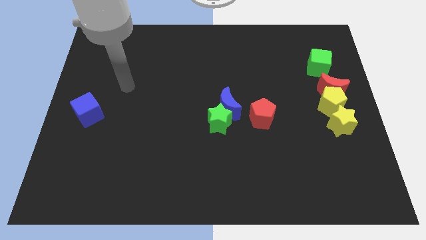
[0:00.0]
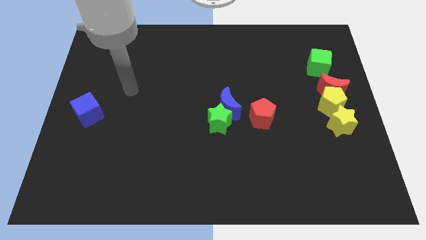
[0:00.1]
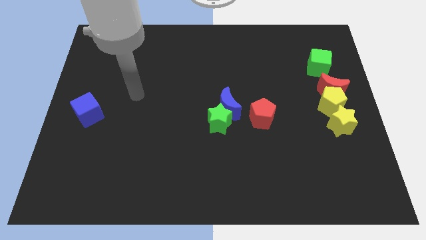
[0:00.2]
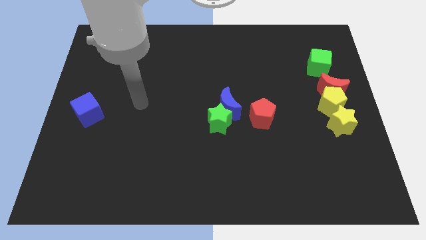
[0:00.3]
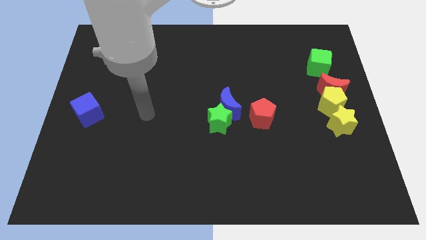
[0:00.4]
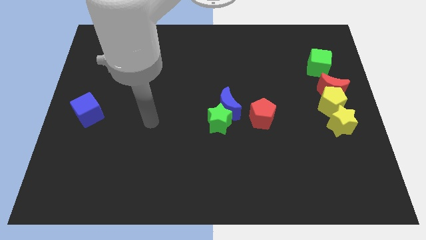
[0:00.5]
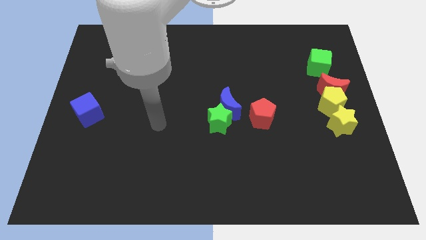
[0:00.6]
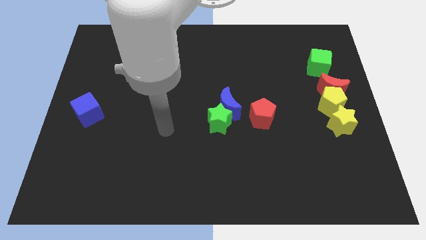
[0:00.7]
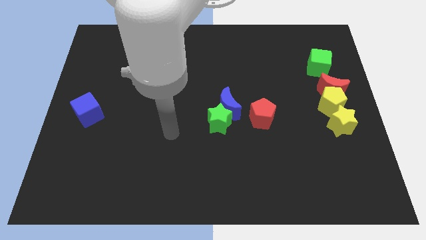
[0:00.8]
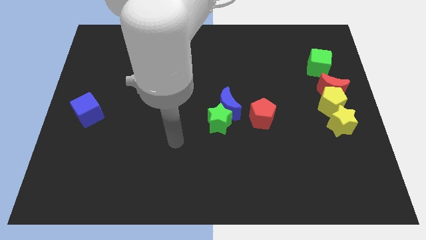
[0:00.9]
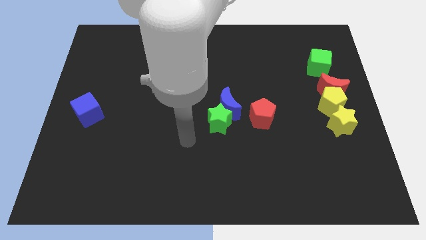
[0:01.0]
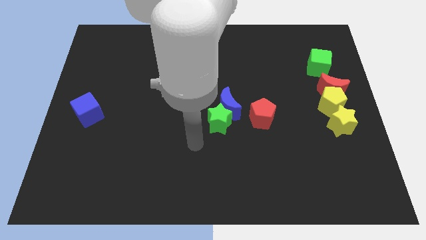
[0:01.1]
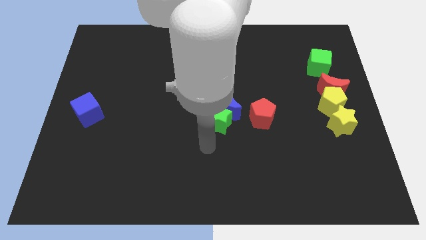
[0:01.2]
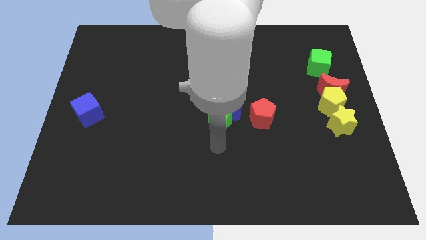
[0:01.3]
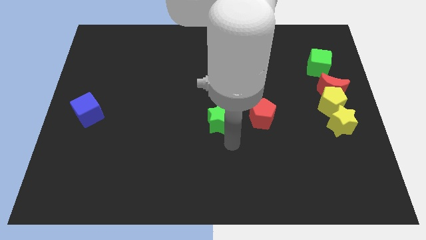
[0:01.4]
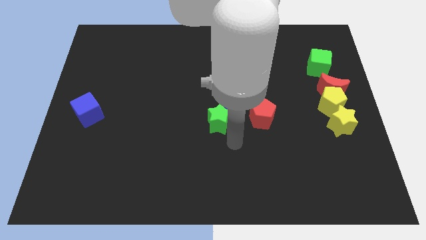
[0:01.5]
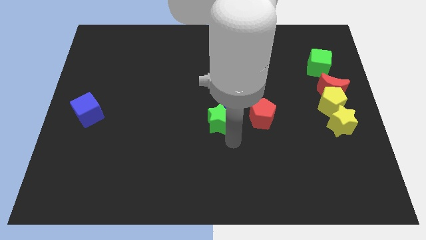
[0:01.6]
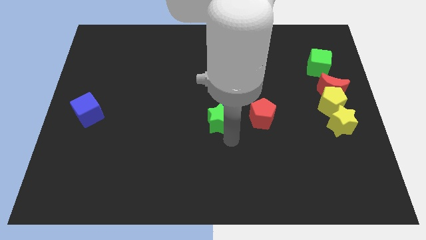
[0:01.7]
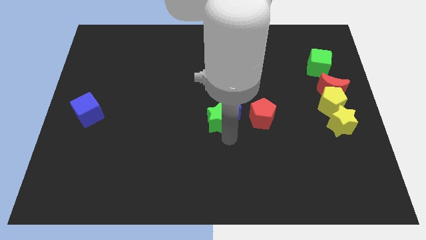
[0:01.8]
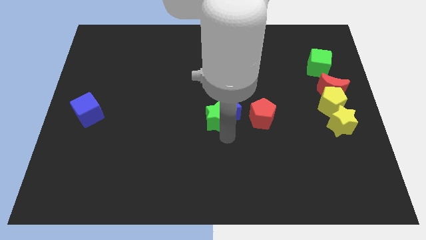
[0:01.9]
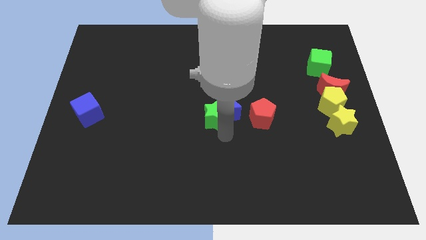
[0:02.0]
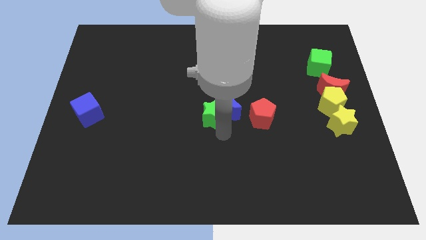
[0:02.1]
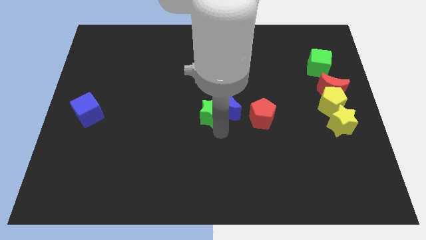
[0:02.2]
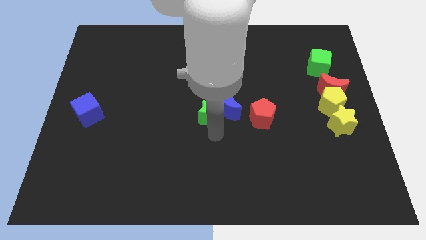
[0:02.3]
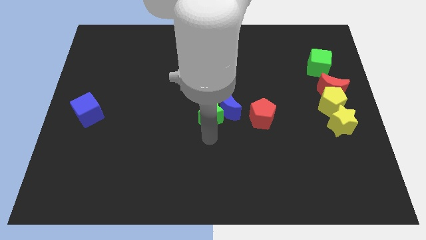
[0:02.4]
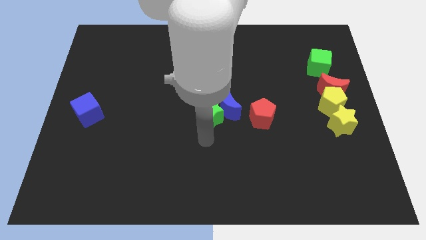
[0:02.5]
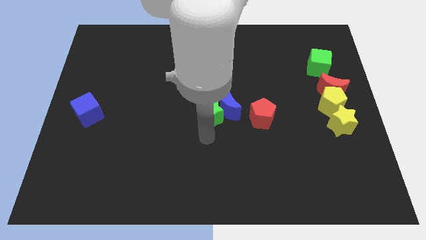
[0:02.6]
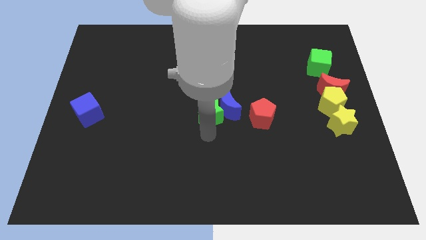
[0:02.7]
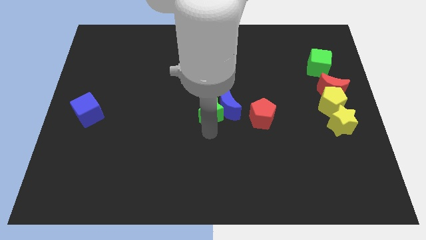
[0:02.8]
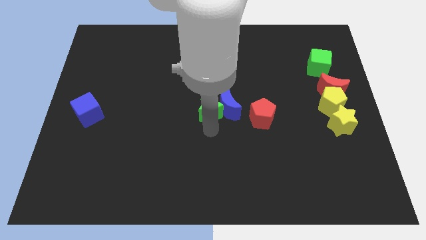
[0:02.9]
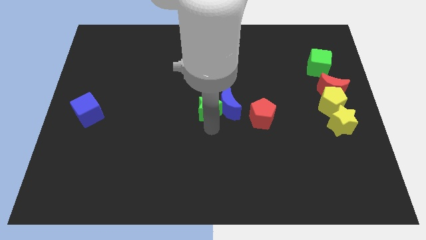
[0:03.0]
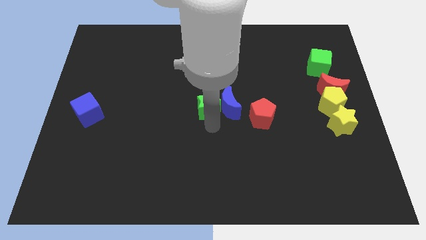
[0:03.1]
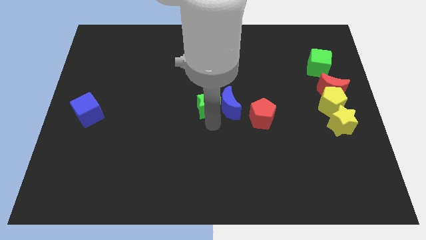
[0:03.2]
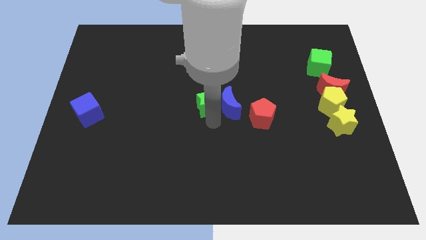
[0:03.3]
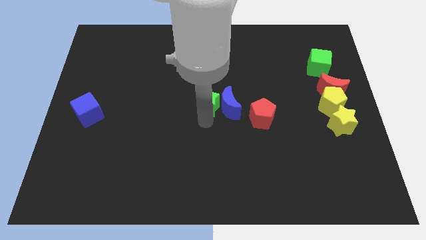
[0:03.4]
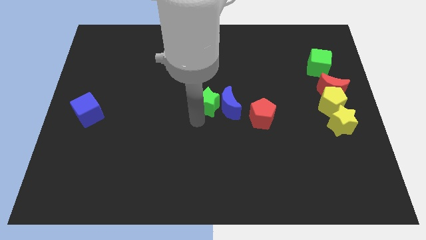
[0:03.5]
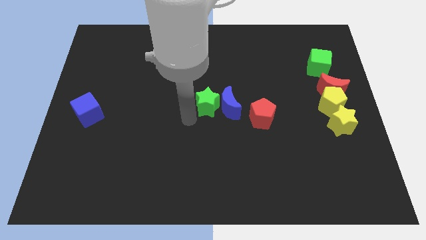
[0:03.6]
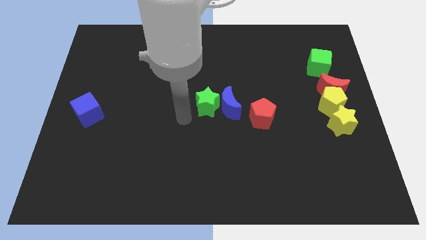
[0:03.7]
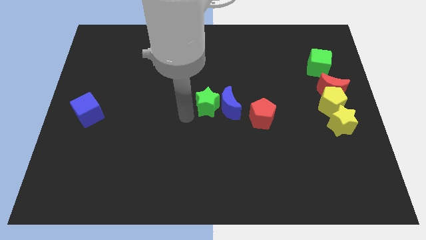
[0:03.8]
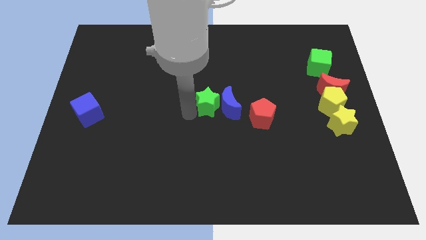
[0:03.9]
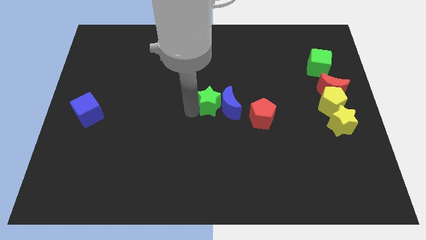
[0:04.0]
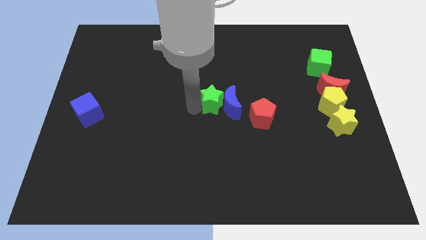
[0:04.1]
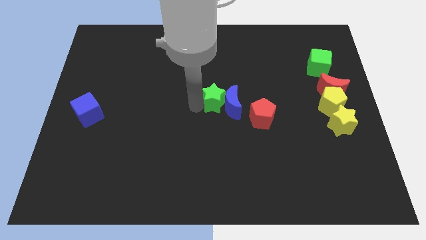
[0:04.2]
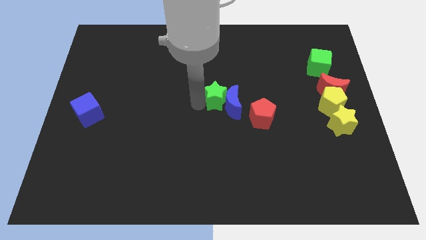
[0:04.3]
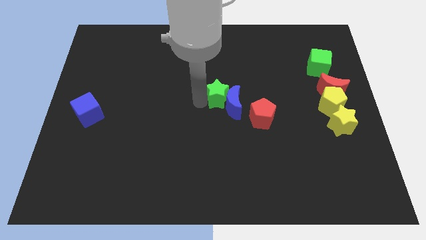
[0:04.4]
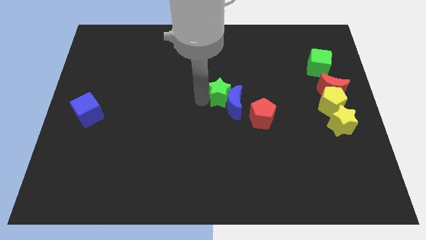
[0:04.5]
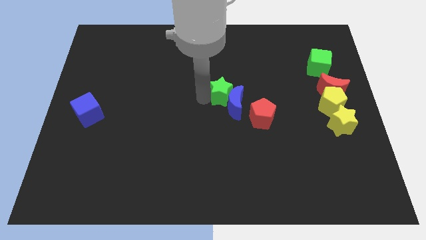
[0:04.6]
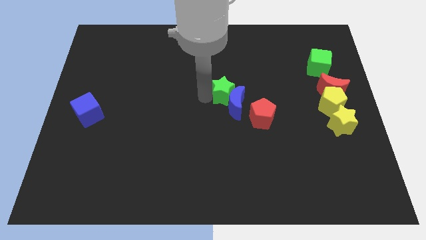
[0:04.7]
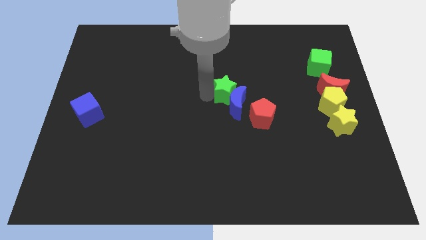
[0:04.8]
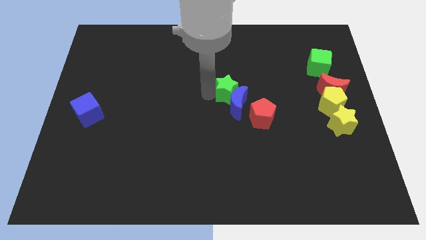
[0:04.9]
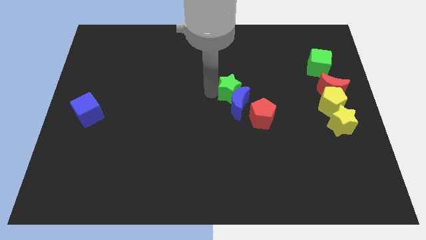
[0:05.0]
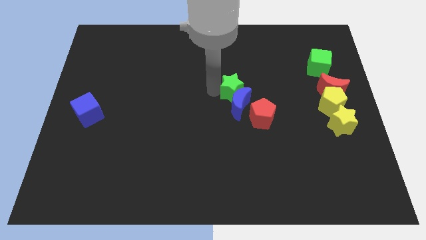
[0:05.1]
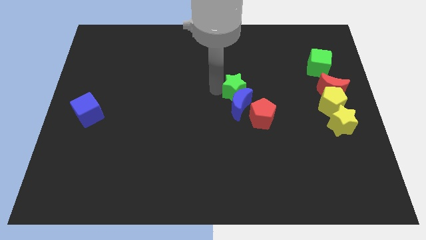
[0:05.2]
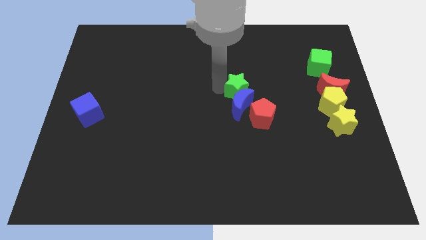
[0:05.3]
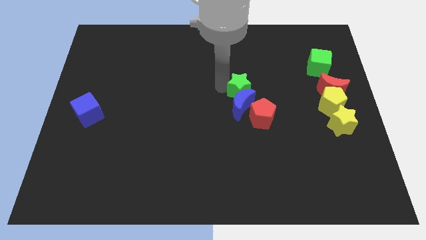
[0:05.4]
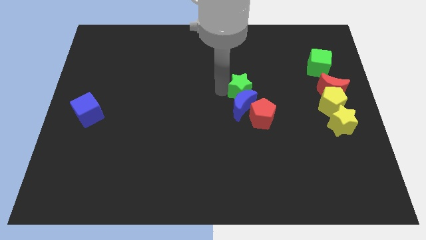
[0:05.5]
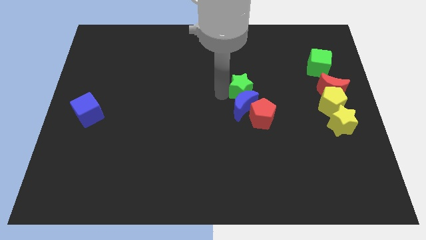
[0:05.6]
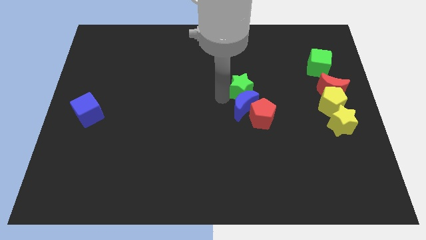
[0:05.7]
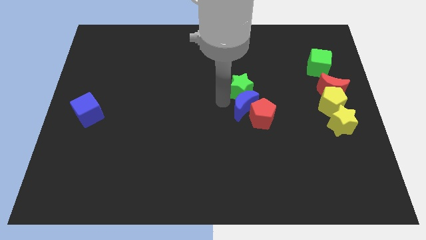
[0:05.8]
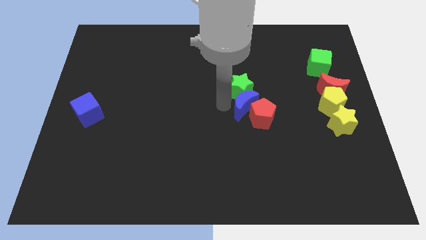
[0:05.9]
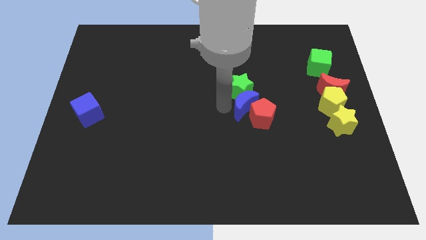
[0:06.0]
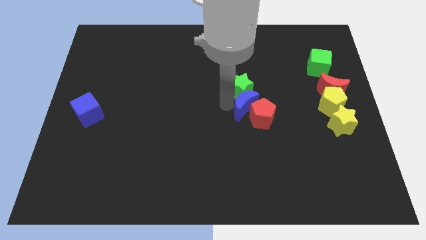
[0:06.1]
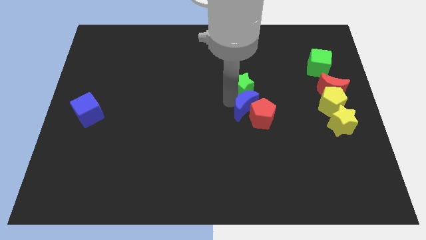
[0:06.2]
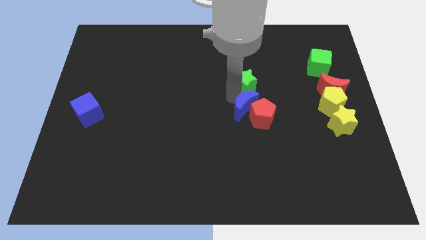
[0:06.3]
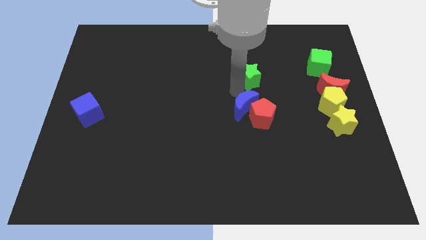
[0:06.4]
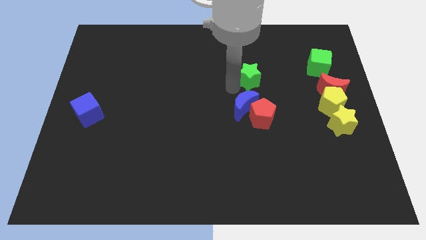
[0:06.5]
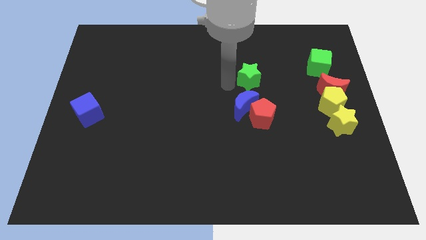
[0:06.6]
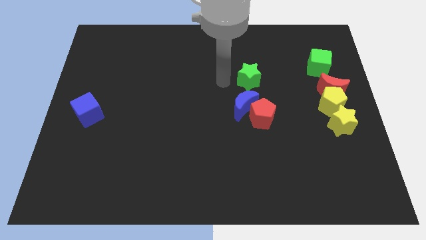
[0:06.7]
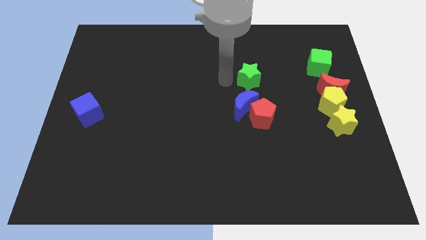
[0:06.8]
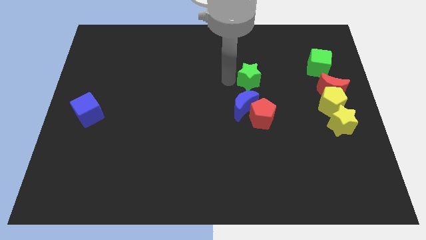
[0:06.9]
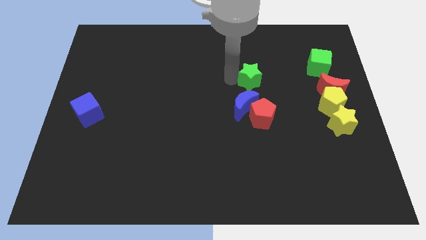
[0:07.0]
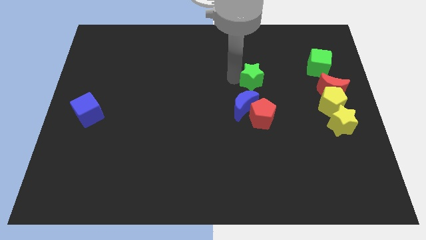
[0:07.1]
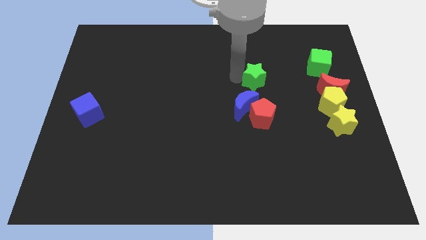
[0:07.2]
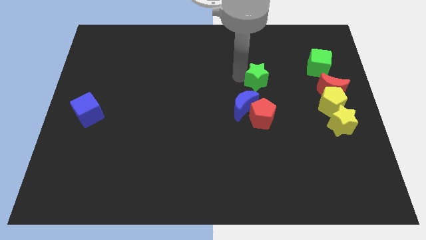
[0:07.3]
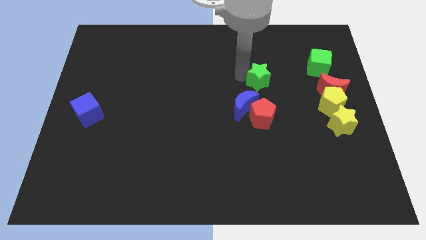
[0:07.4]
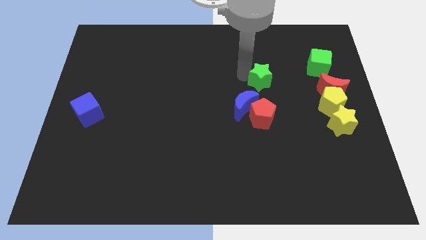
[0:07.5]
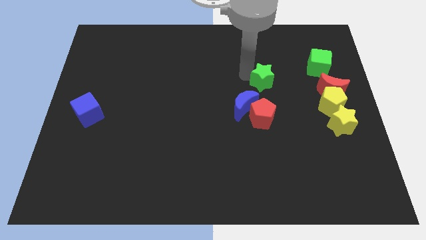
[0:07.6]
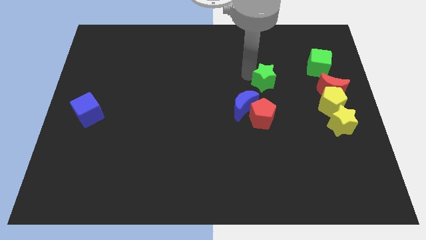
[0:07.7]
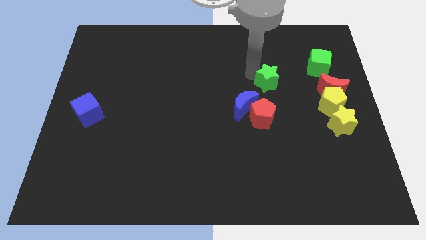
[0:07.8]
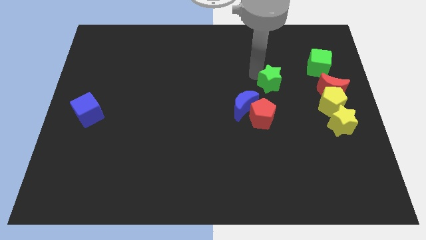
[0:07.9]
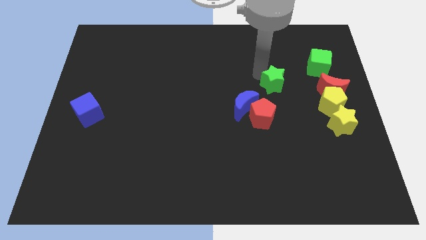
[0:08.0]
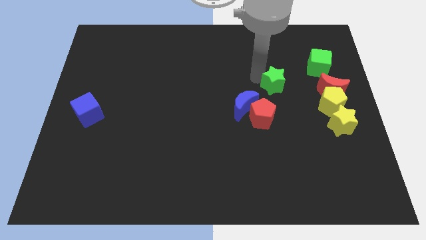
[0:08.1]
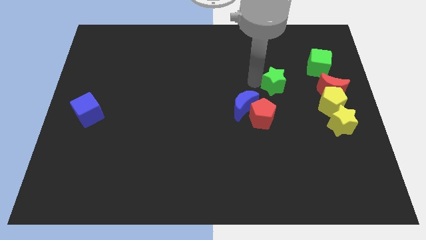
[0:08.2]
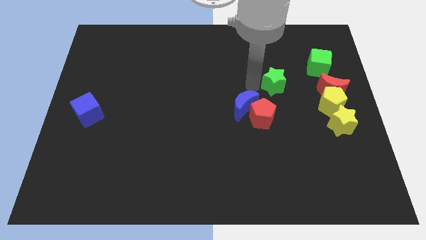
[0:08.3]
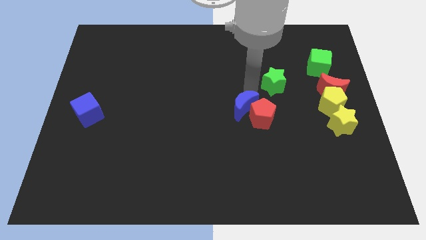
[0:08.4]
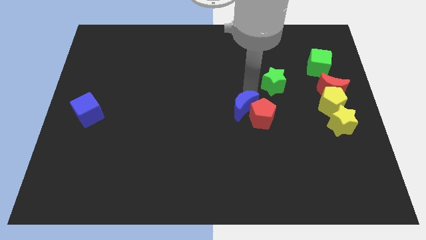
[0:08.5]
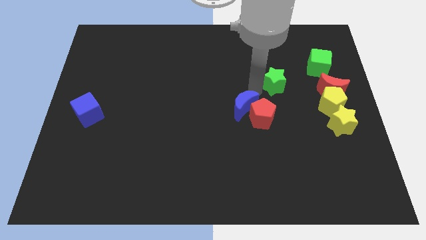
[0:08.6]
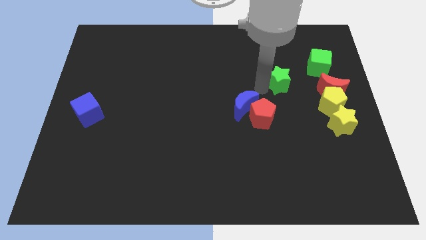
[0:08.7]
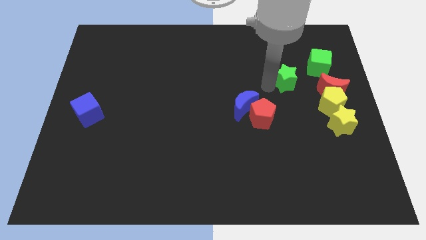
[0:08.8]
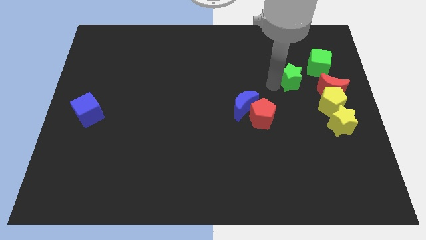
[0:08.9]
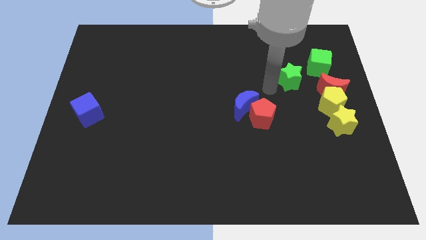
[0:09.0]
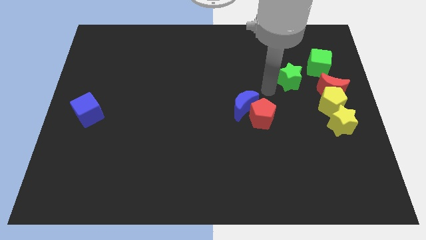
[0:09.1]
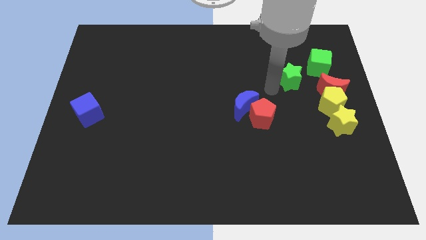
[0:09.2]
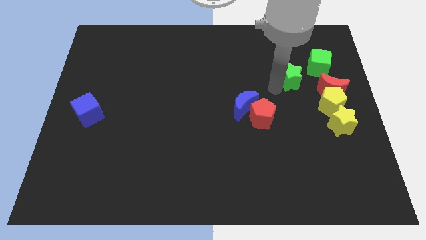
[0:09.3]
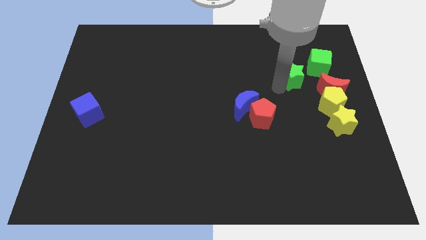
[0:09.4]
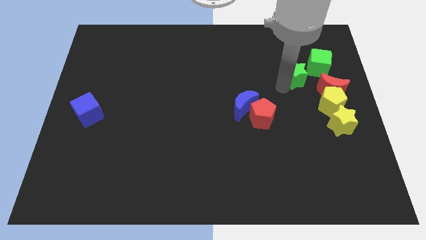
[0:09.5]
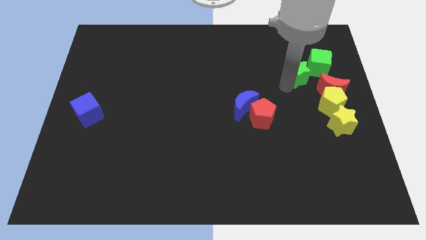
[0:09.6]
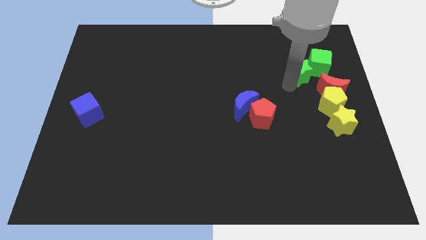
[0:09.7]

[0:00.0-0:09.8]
slide the green star towards the green cube
